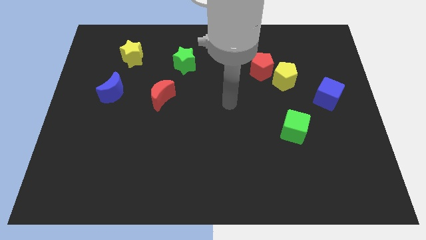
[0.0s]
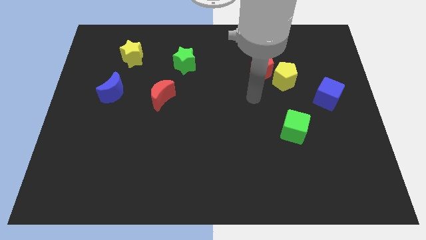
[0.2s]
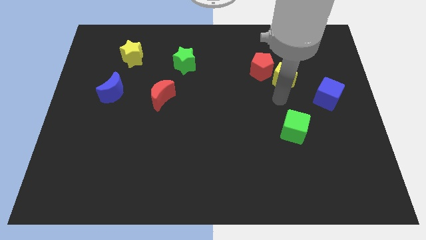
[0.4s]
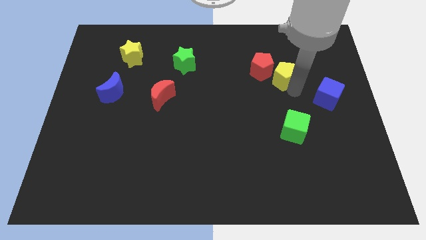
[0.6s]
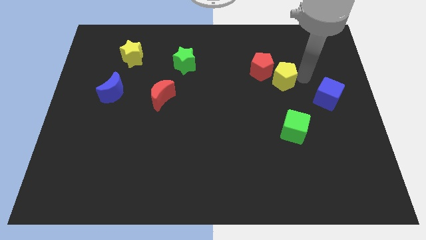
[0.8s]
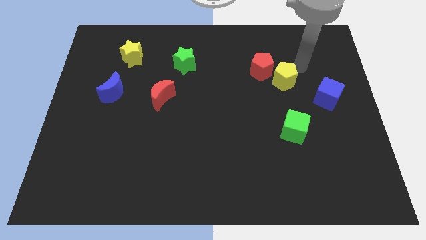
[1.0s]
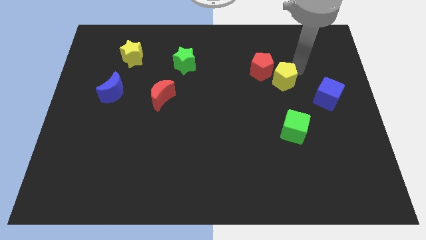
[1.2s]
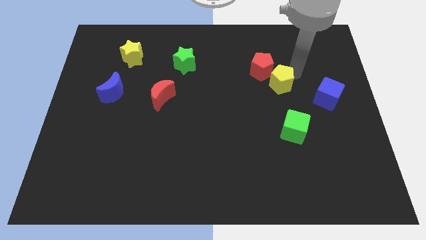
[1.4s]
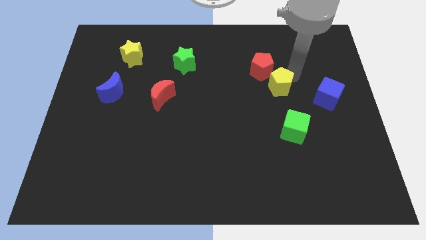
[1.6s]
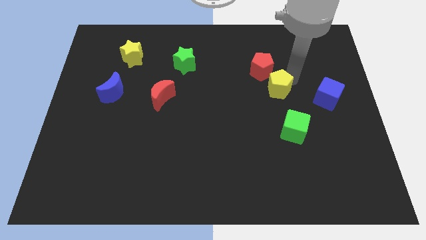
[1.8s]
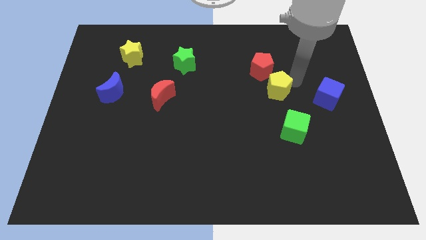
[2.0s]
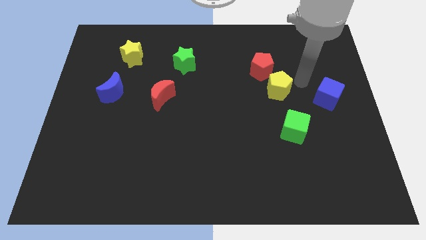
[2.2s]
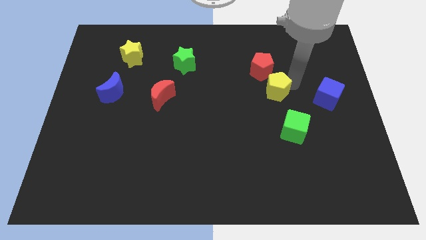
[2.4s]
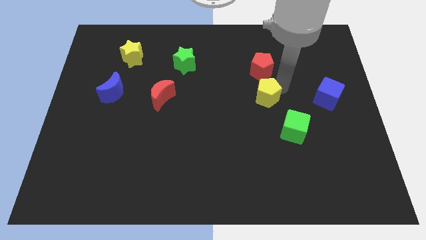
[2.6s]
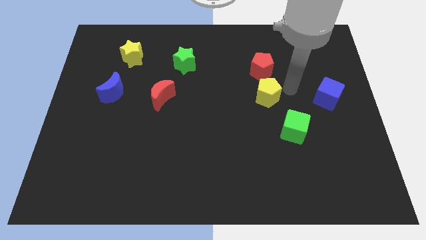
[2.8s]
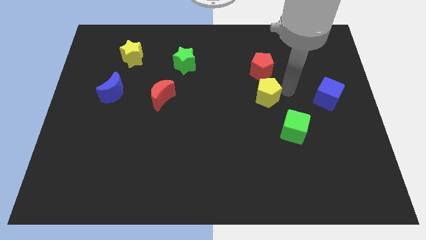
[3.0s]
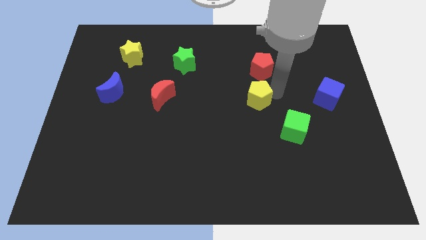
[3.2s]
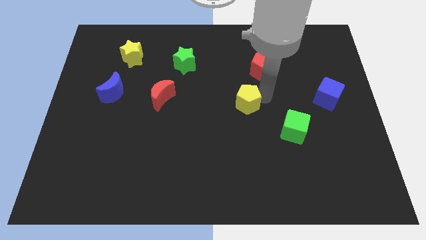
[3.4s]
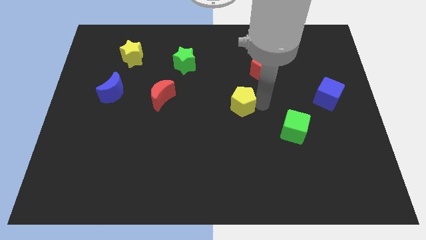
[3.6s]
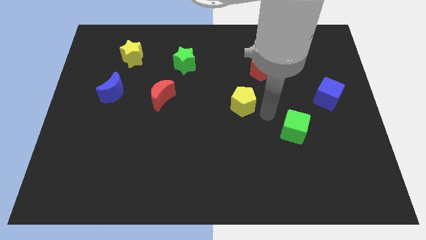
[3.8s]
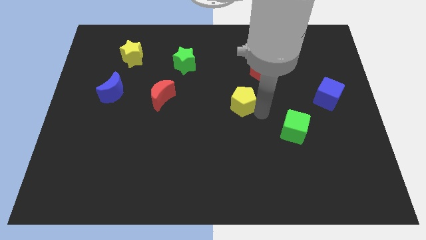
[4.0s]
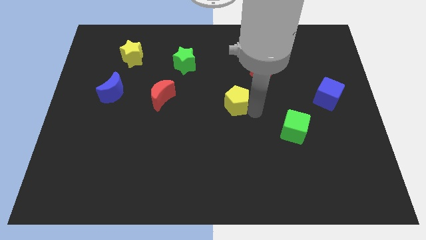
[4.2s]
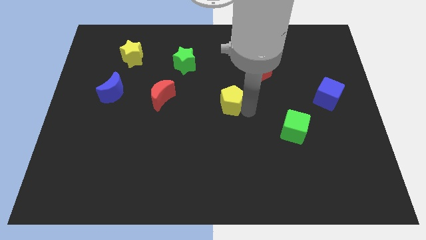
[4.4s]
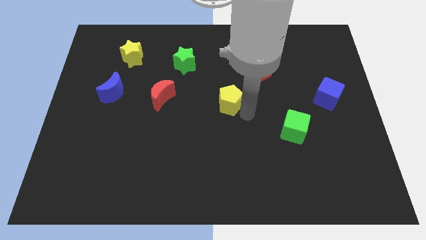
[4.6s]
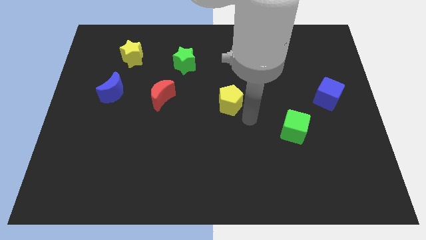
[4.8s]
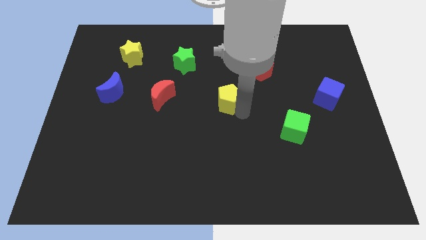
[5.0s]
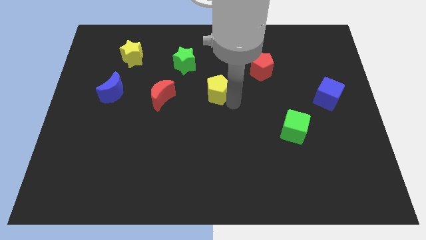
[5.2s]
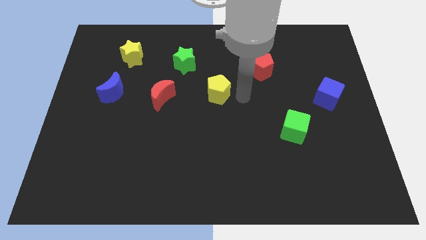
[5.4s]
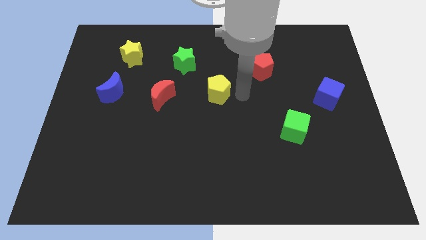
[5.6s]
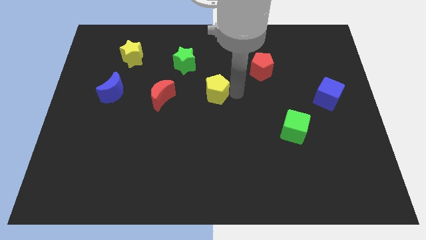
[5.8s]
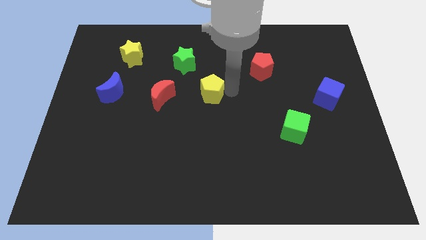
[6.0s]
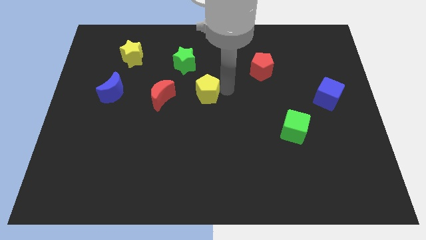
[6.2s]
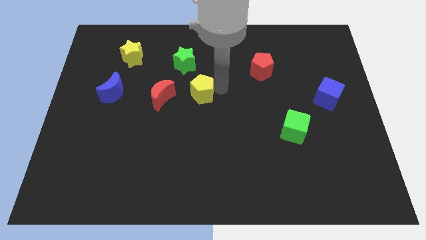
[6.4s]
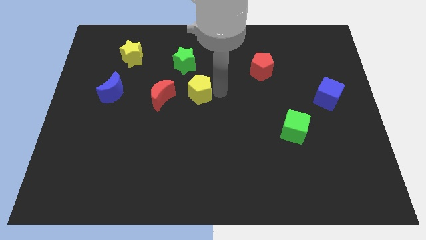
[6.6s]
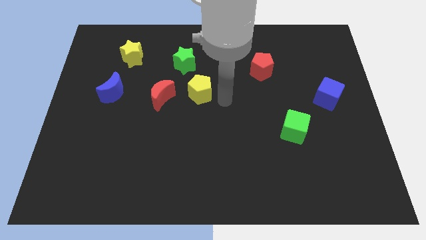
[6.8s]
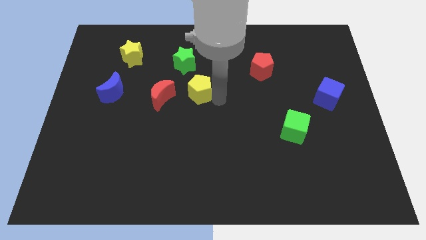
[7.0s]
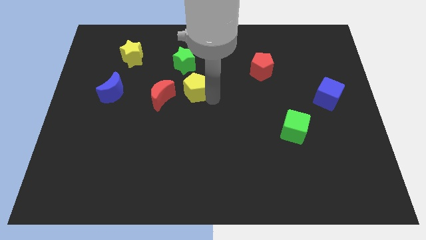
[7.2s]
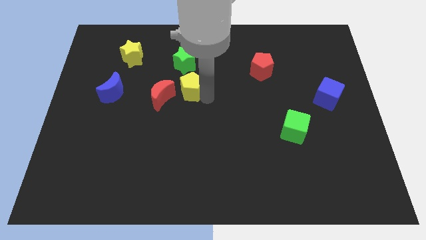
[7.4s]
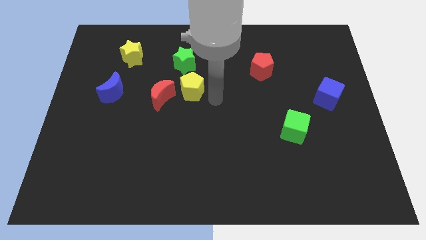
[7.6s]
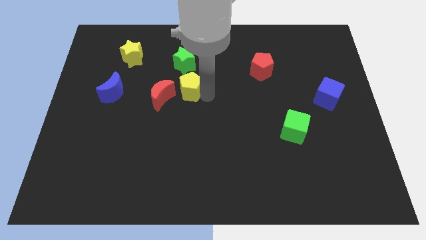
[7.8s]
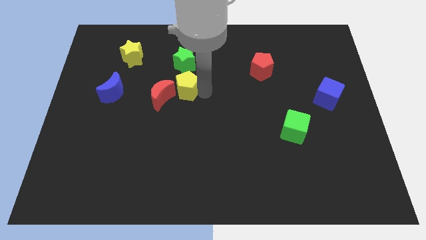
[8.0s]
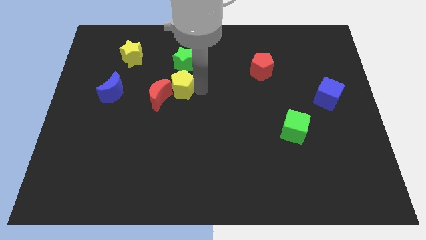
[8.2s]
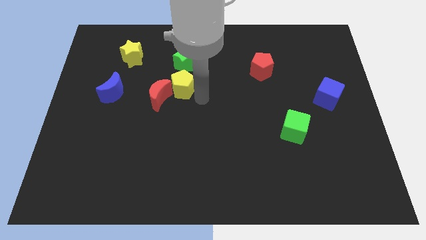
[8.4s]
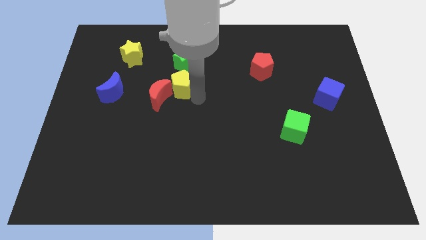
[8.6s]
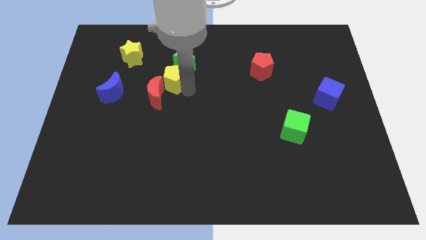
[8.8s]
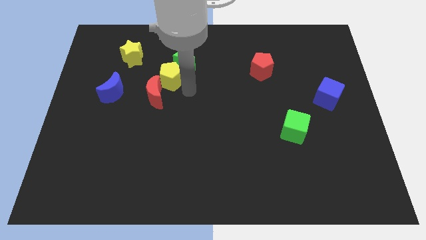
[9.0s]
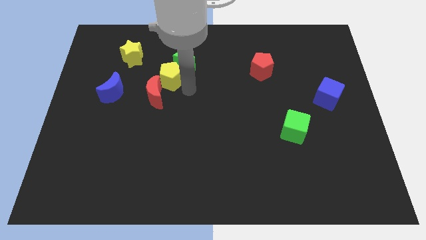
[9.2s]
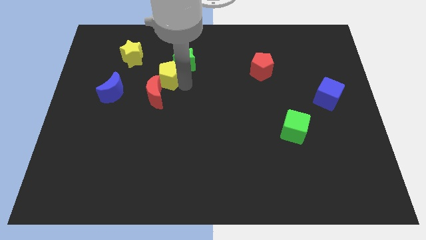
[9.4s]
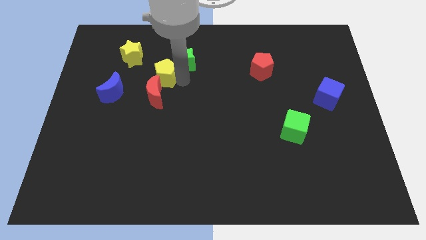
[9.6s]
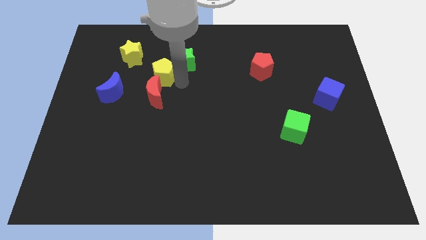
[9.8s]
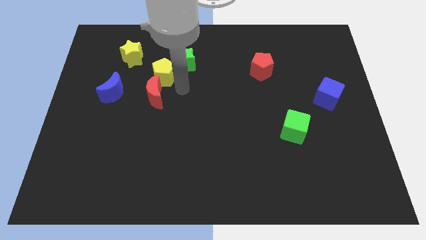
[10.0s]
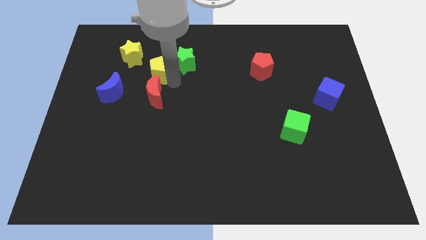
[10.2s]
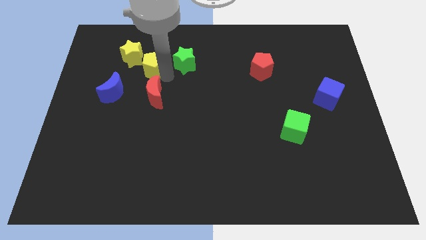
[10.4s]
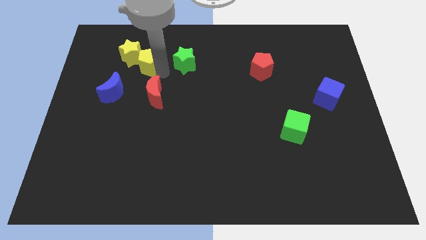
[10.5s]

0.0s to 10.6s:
move the yellow pentagon next to the yellow star

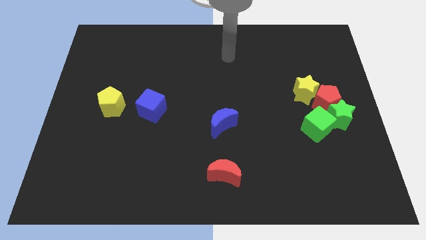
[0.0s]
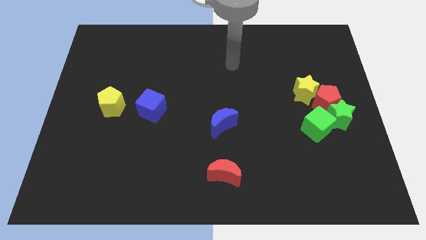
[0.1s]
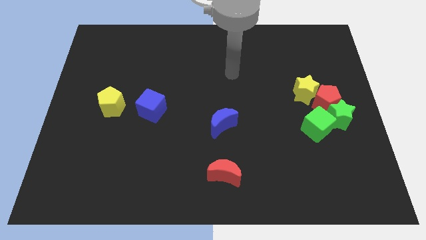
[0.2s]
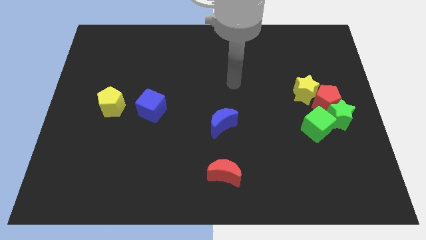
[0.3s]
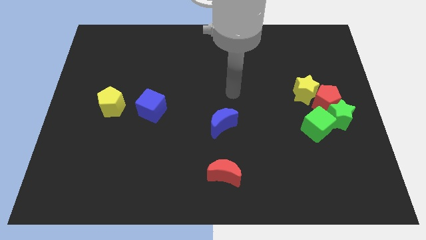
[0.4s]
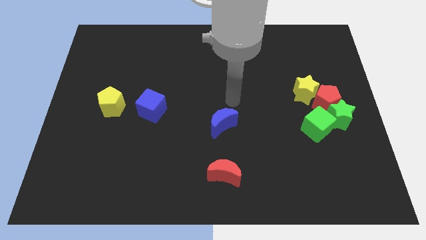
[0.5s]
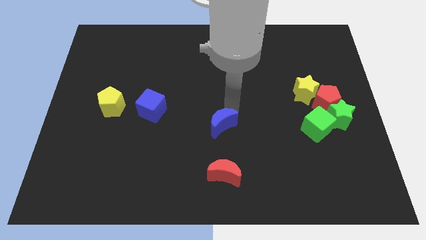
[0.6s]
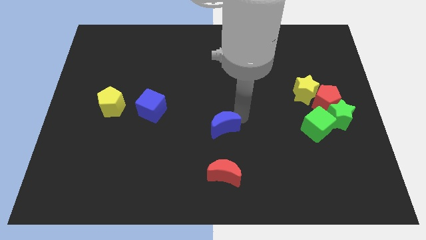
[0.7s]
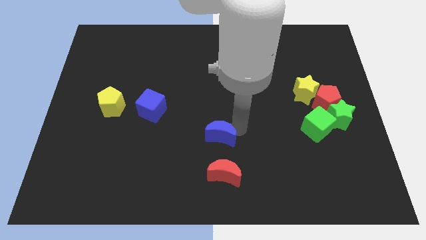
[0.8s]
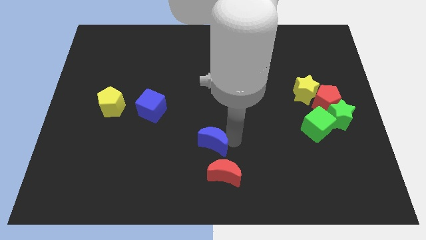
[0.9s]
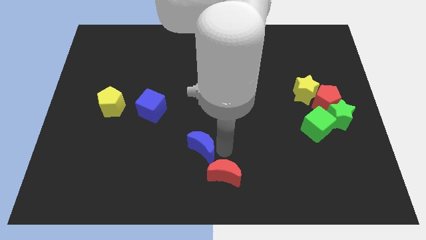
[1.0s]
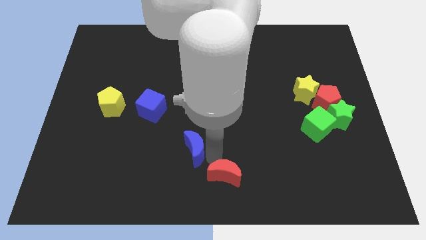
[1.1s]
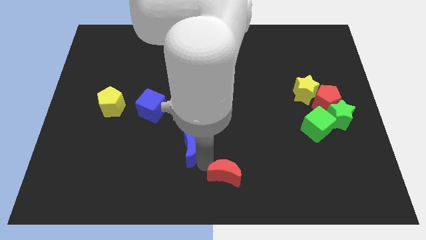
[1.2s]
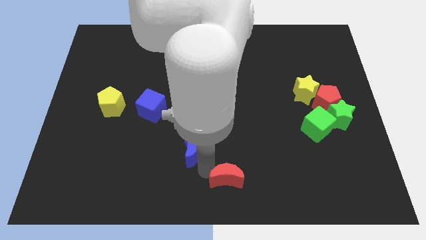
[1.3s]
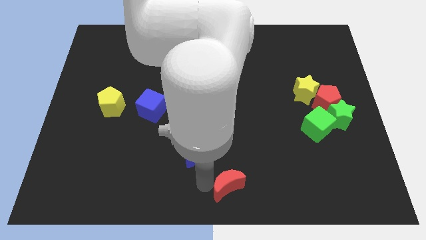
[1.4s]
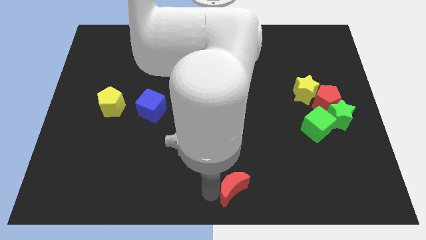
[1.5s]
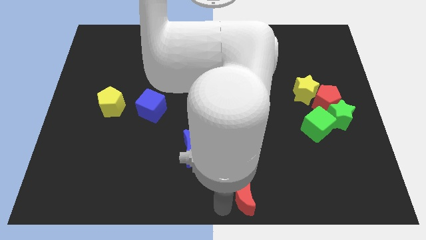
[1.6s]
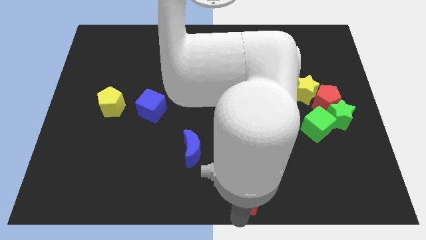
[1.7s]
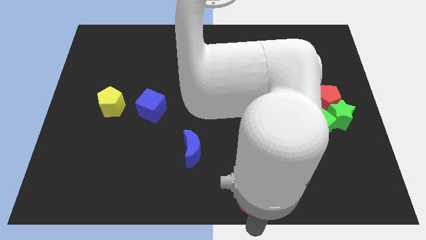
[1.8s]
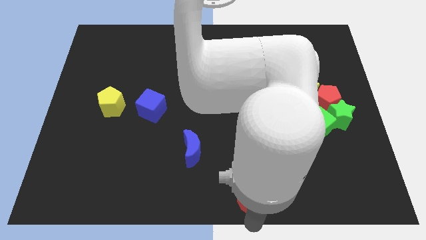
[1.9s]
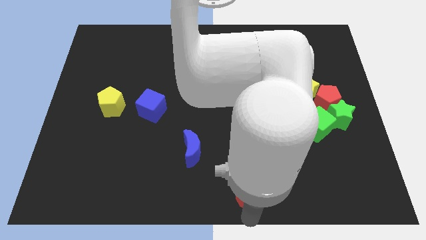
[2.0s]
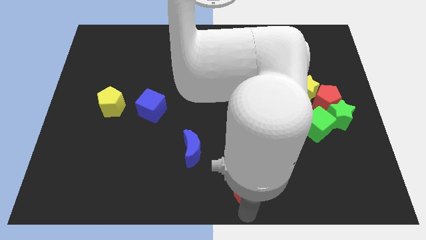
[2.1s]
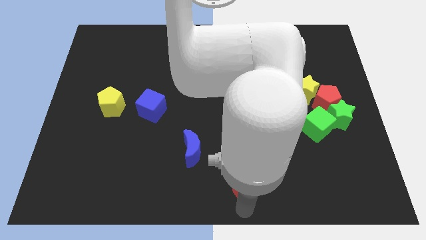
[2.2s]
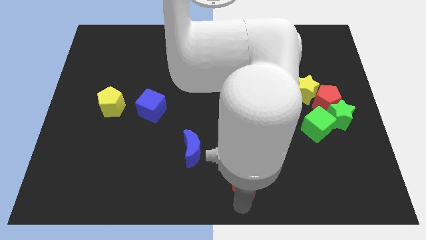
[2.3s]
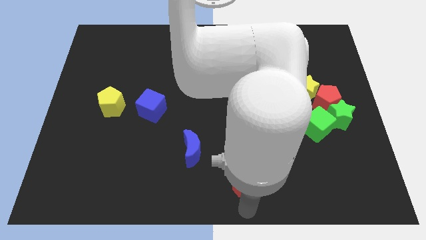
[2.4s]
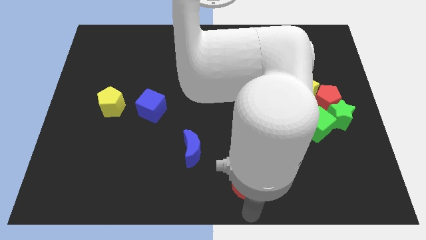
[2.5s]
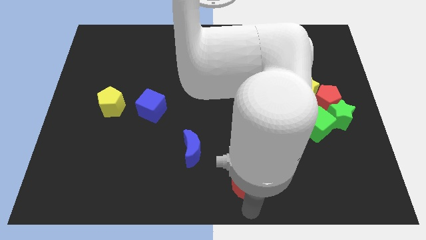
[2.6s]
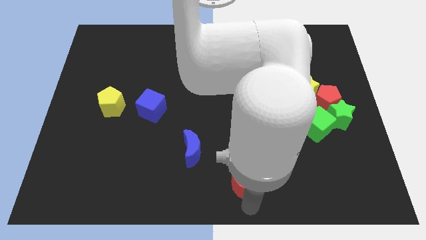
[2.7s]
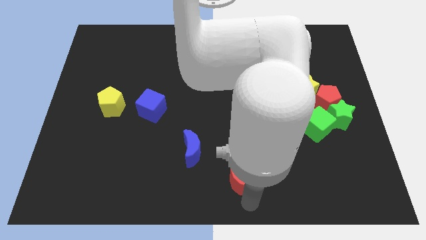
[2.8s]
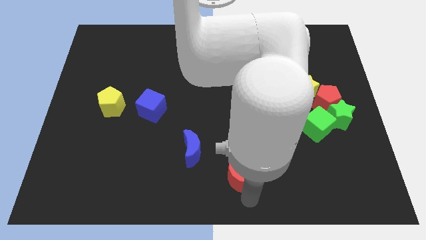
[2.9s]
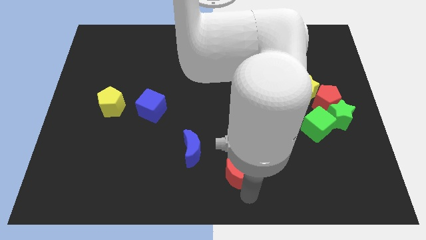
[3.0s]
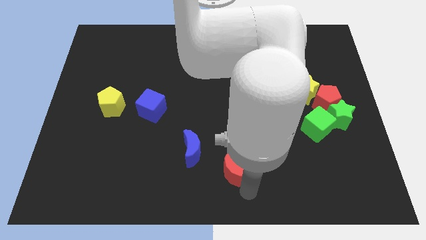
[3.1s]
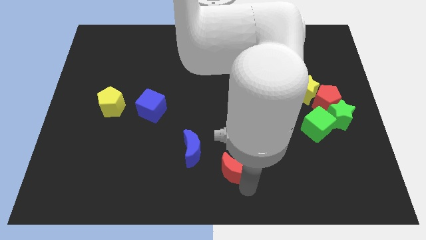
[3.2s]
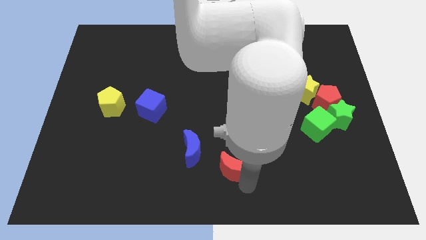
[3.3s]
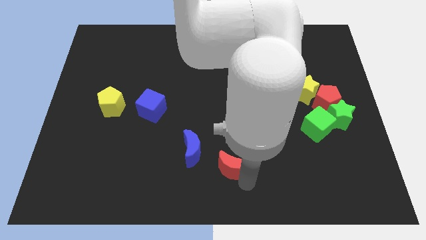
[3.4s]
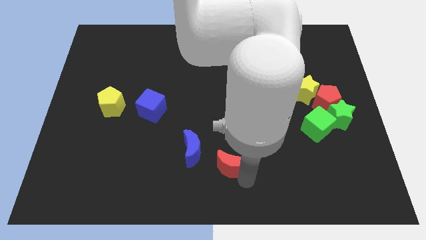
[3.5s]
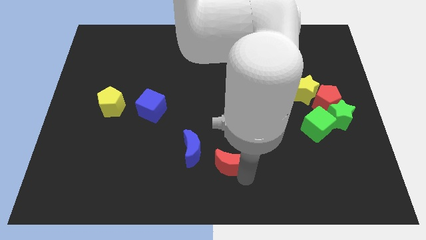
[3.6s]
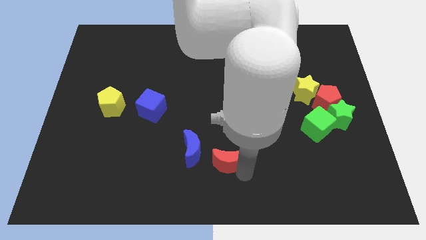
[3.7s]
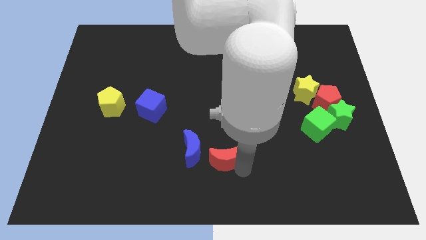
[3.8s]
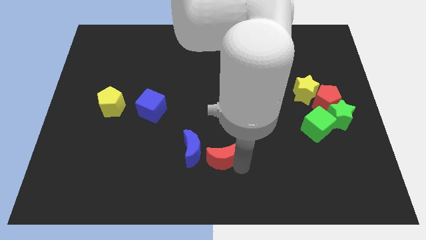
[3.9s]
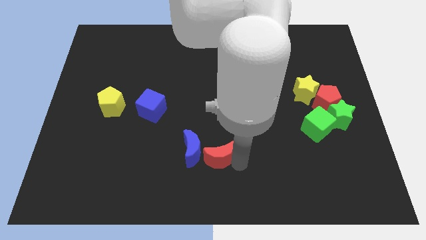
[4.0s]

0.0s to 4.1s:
move the red moon close to the blue moon
